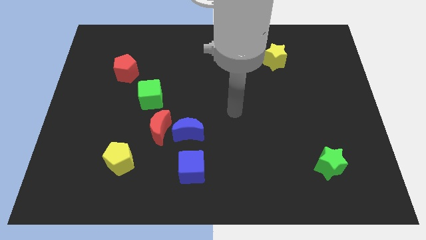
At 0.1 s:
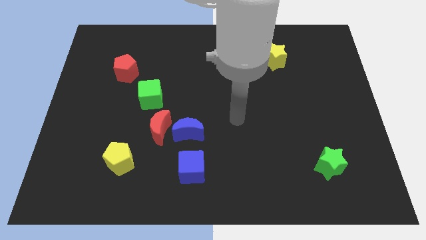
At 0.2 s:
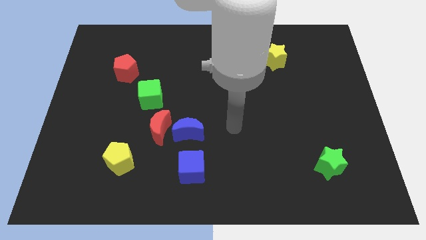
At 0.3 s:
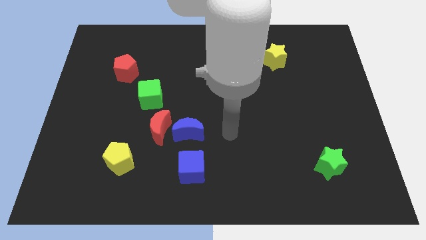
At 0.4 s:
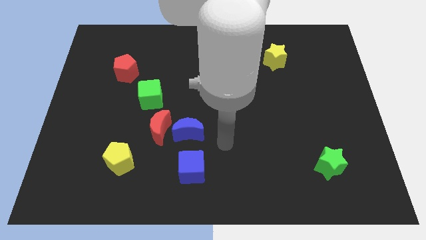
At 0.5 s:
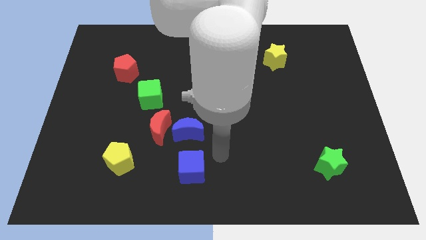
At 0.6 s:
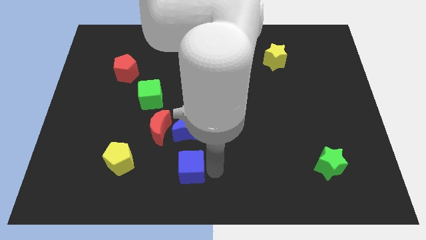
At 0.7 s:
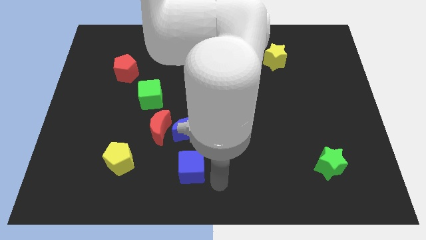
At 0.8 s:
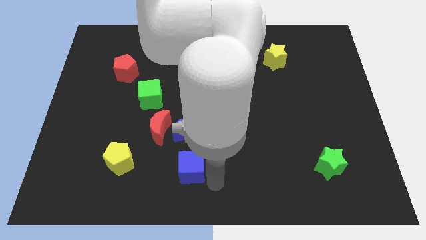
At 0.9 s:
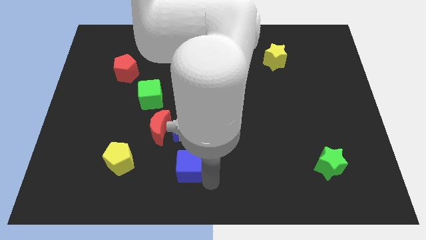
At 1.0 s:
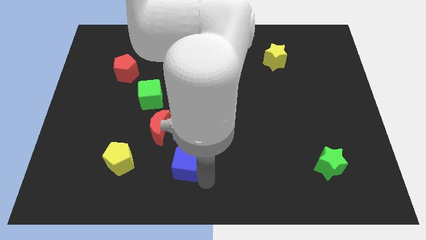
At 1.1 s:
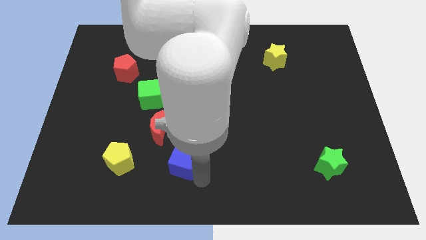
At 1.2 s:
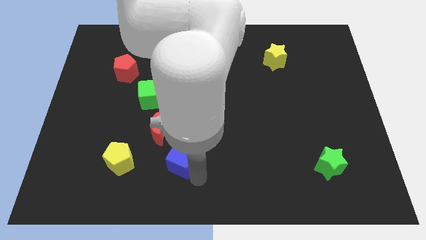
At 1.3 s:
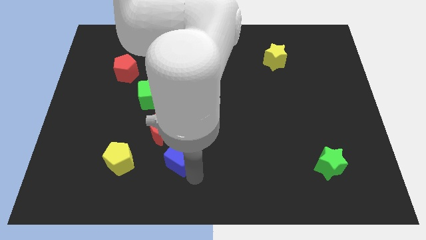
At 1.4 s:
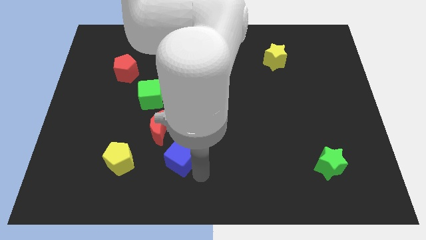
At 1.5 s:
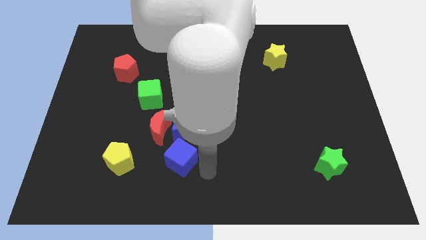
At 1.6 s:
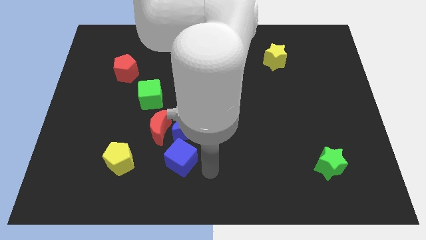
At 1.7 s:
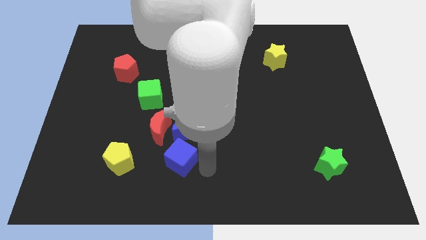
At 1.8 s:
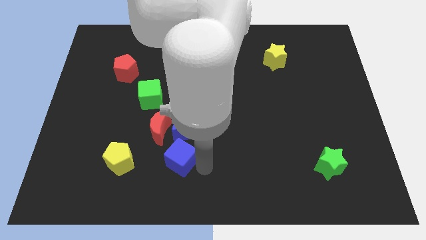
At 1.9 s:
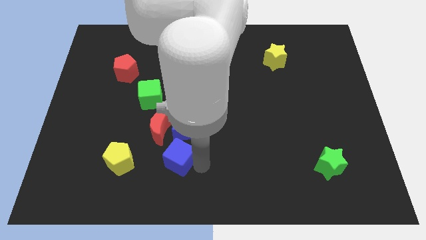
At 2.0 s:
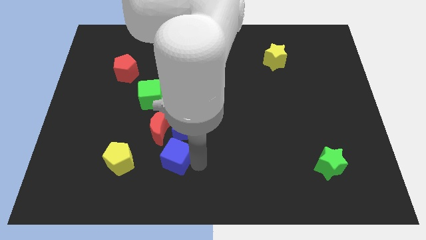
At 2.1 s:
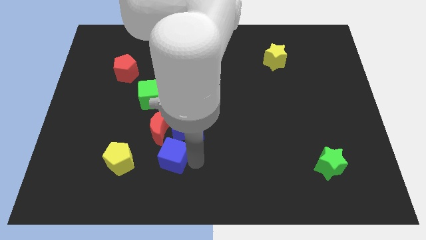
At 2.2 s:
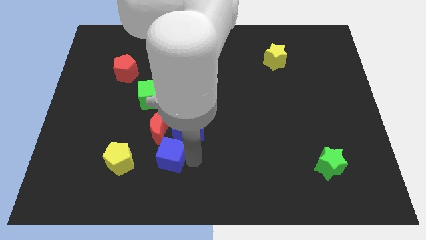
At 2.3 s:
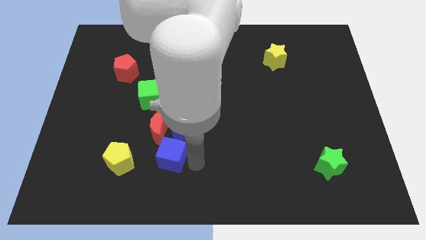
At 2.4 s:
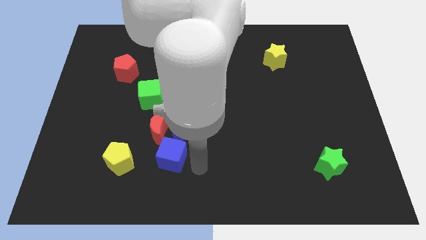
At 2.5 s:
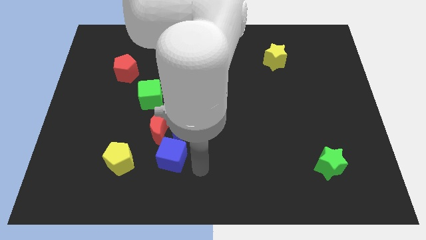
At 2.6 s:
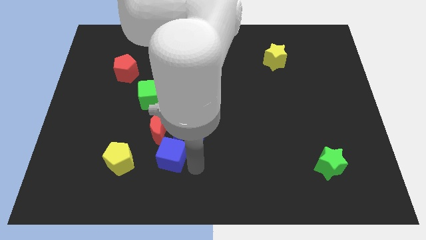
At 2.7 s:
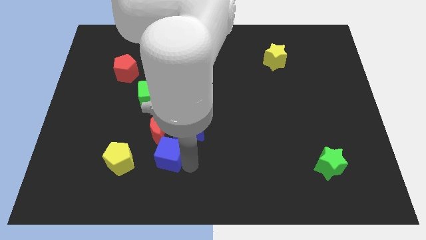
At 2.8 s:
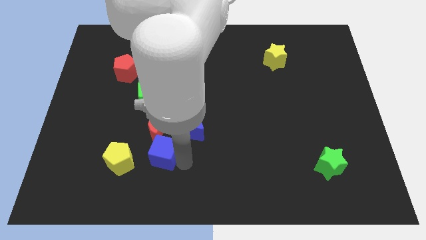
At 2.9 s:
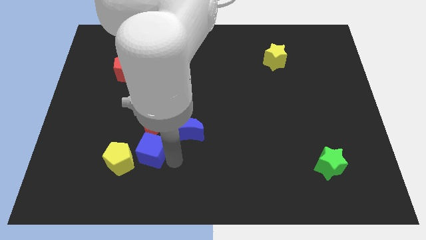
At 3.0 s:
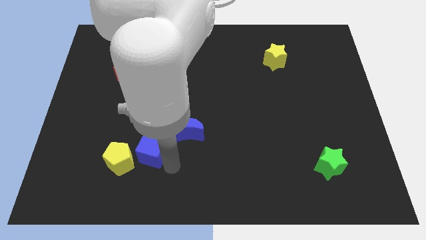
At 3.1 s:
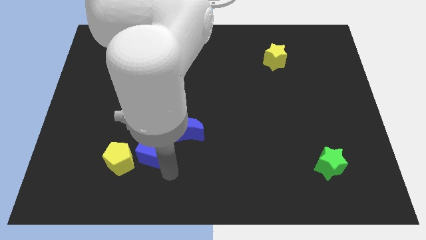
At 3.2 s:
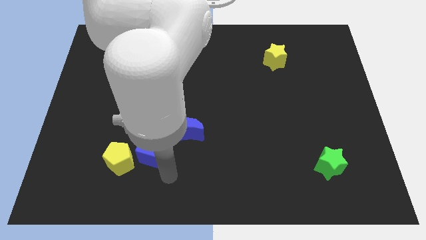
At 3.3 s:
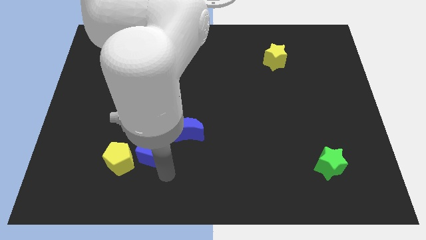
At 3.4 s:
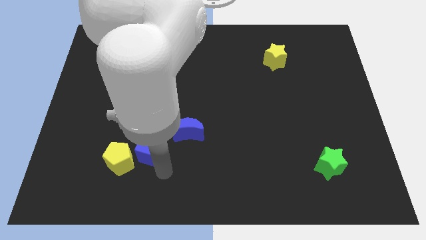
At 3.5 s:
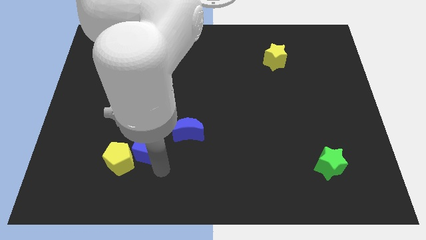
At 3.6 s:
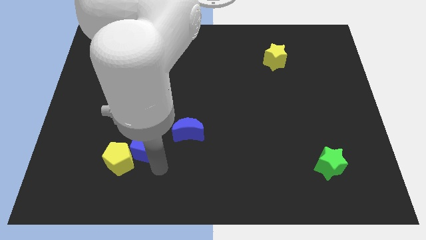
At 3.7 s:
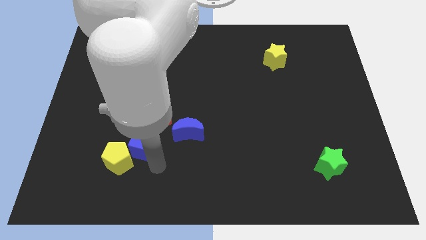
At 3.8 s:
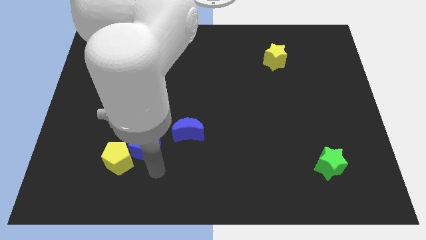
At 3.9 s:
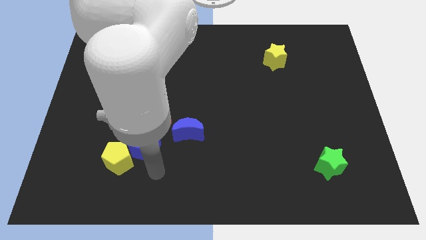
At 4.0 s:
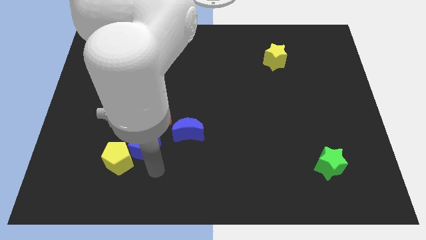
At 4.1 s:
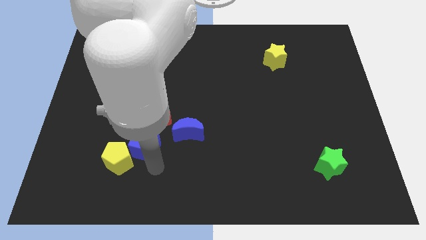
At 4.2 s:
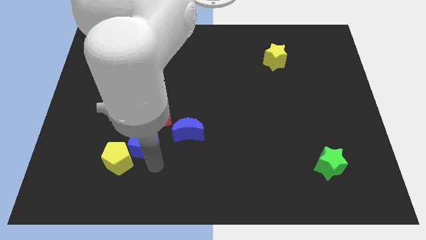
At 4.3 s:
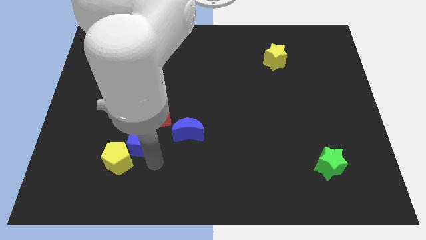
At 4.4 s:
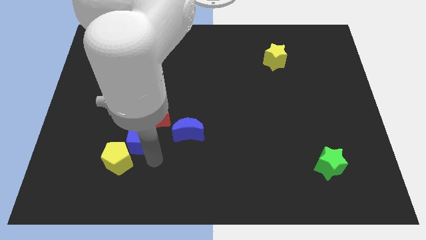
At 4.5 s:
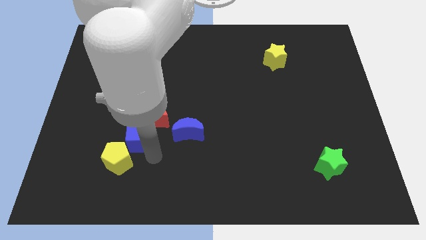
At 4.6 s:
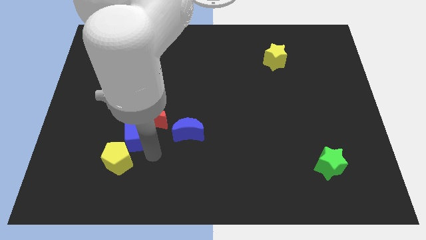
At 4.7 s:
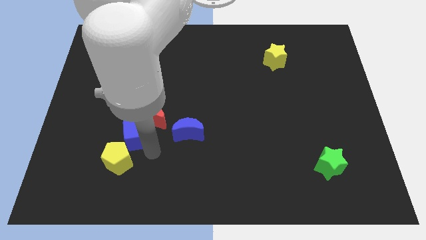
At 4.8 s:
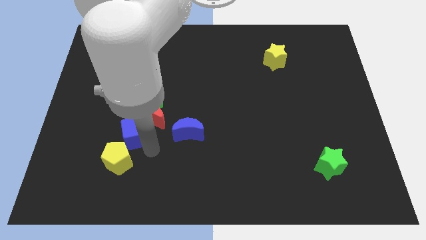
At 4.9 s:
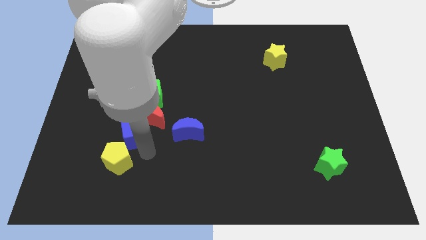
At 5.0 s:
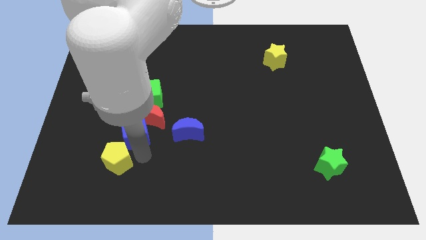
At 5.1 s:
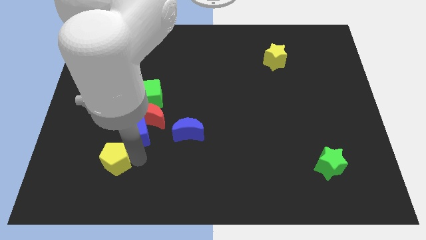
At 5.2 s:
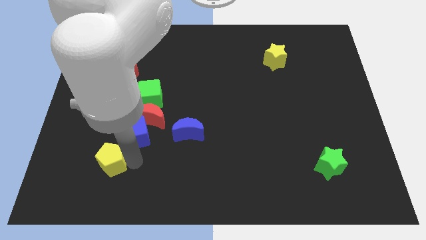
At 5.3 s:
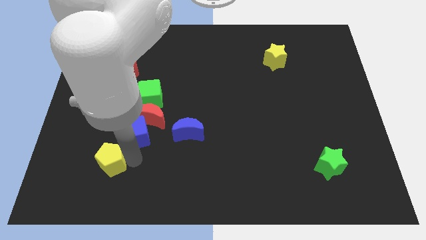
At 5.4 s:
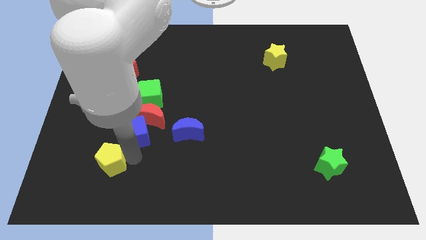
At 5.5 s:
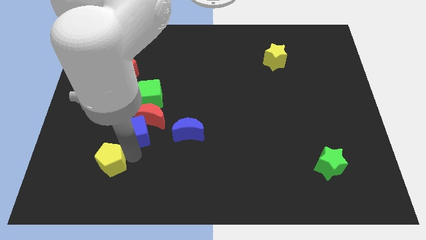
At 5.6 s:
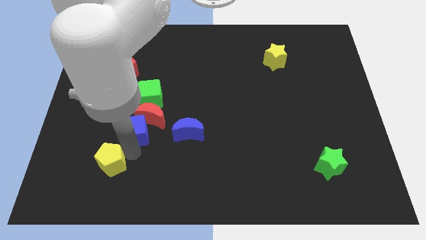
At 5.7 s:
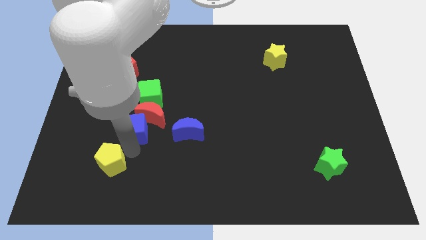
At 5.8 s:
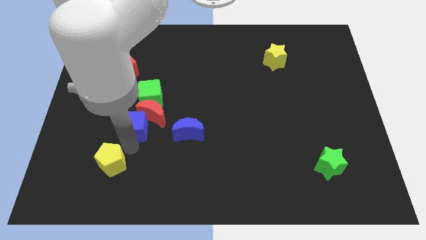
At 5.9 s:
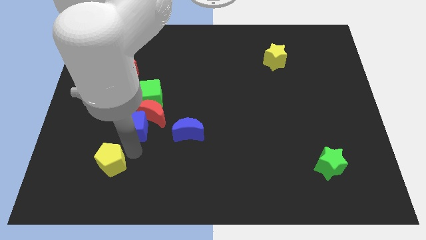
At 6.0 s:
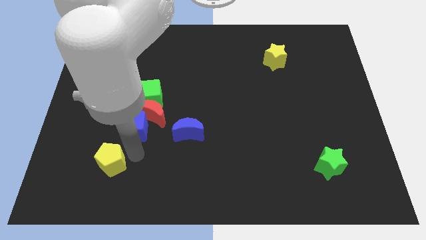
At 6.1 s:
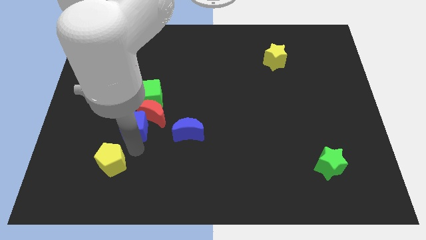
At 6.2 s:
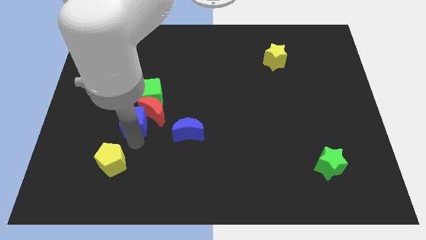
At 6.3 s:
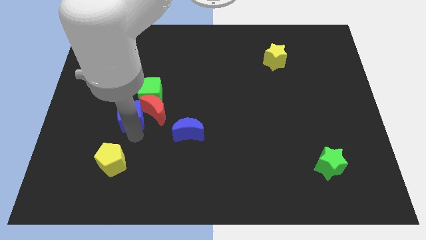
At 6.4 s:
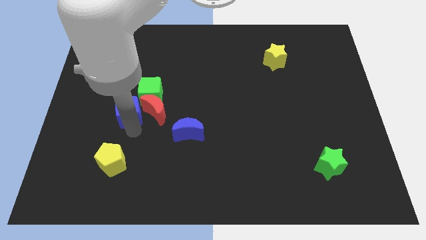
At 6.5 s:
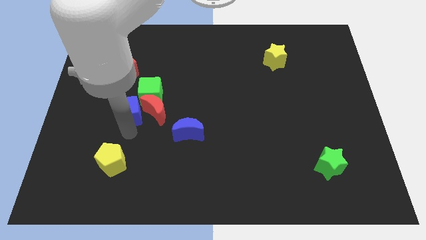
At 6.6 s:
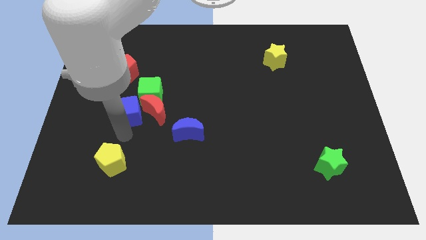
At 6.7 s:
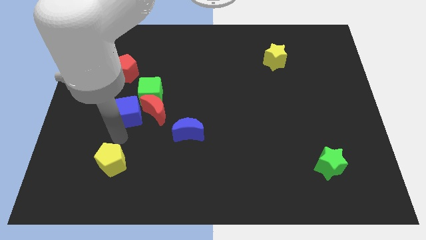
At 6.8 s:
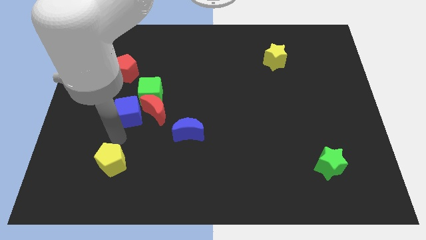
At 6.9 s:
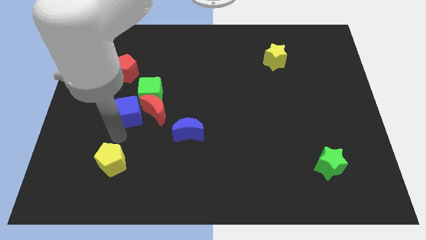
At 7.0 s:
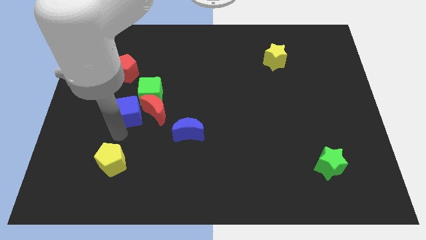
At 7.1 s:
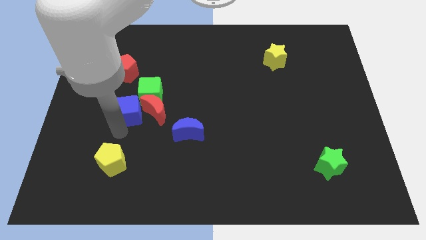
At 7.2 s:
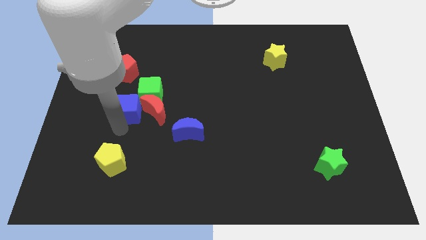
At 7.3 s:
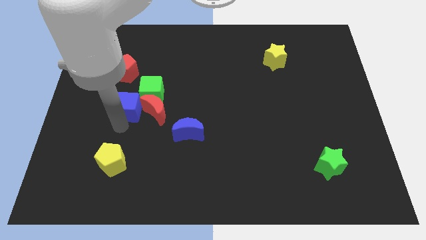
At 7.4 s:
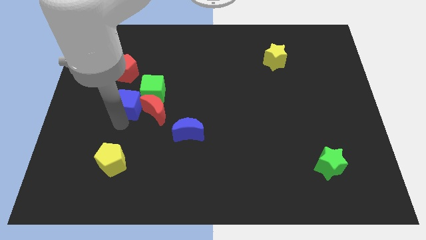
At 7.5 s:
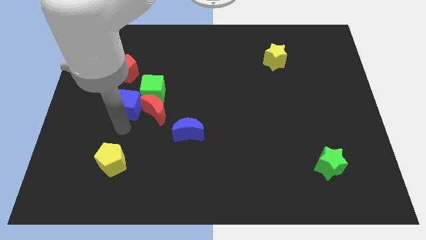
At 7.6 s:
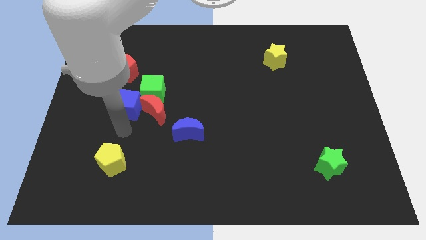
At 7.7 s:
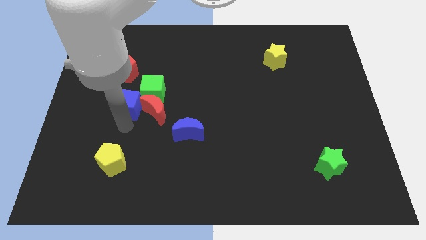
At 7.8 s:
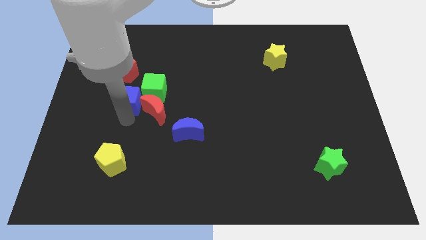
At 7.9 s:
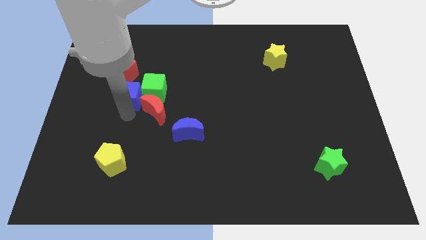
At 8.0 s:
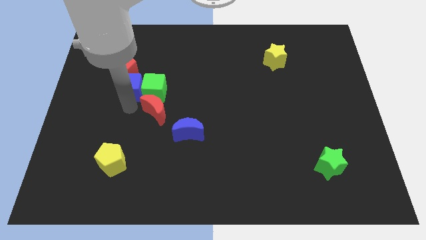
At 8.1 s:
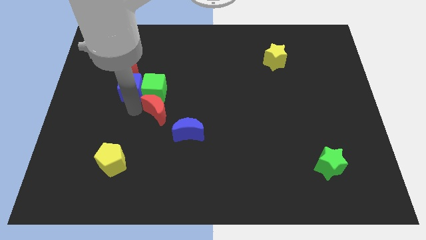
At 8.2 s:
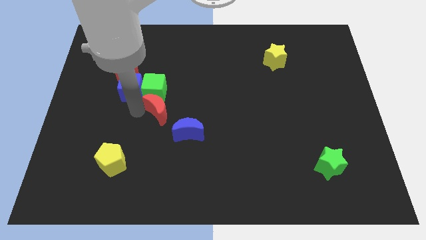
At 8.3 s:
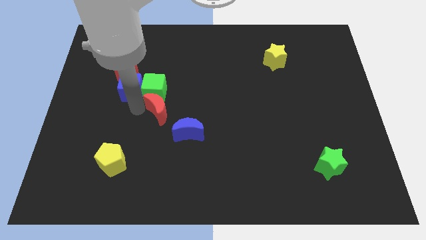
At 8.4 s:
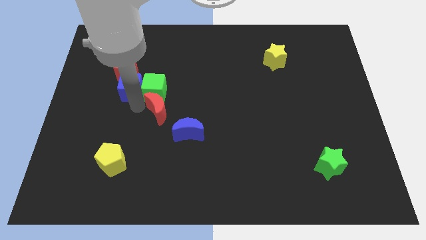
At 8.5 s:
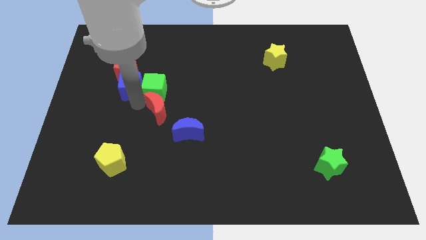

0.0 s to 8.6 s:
move the blue cube to the red pentagon
